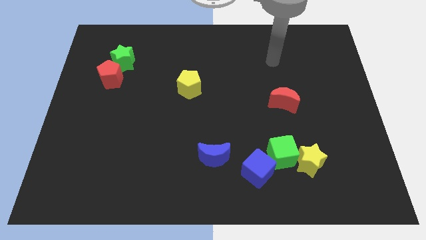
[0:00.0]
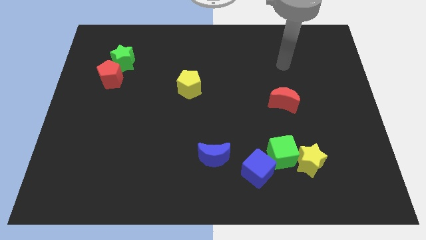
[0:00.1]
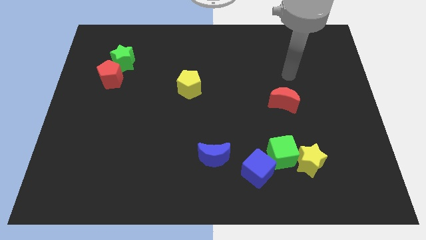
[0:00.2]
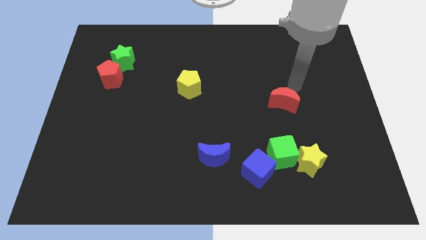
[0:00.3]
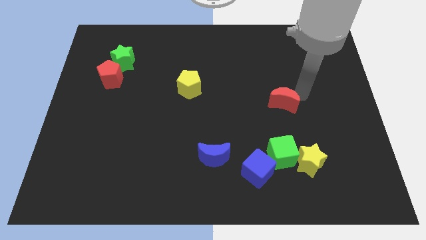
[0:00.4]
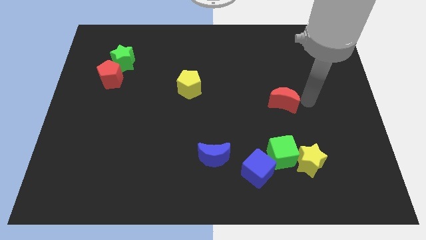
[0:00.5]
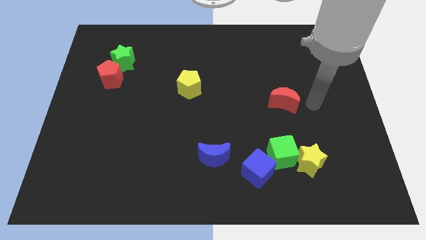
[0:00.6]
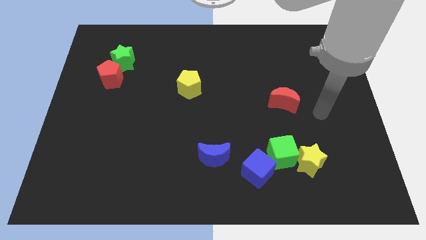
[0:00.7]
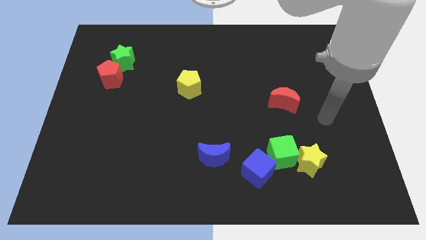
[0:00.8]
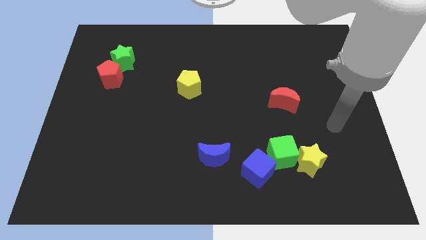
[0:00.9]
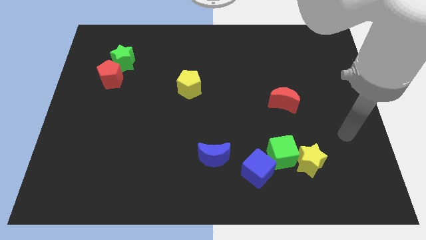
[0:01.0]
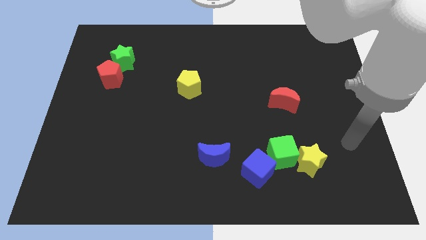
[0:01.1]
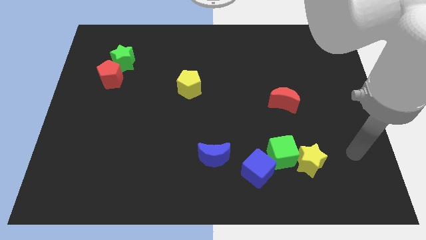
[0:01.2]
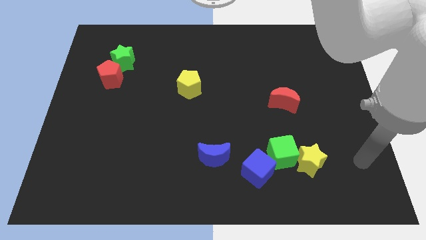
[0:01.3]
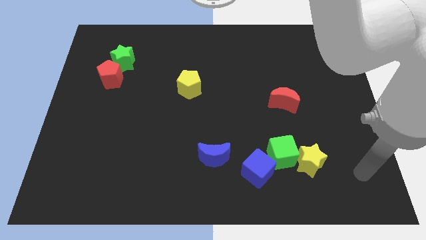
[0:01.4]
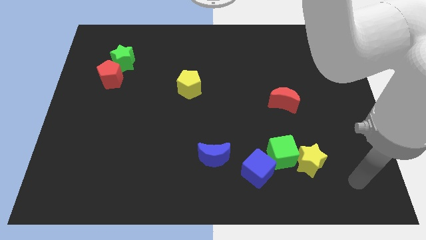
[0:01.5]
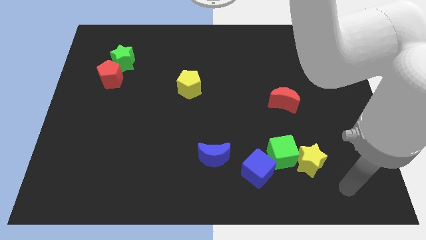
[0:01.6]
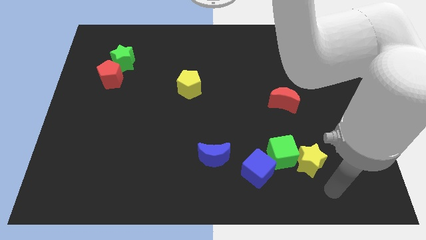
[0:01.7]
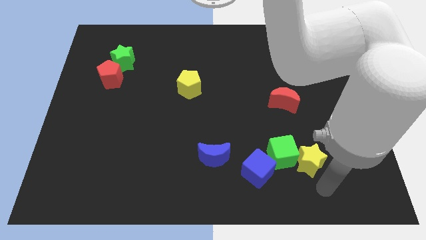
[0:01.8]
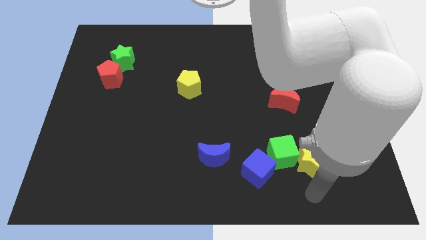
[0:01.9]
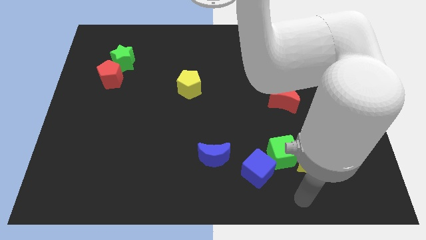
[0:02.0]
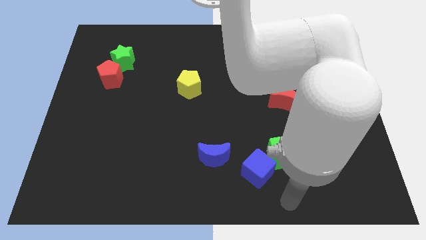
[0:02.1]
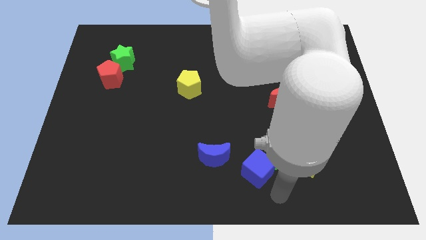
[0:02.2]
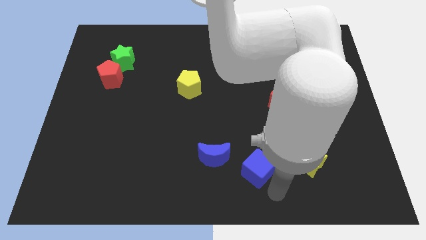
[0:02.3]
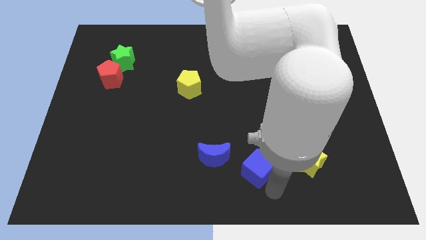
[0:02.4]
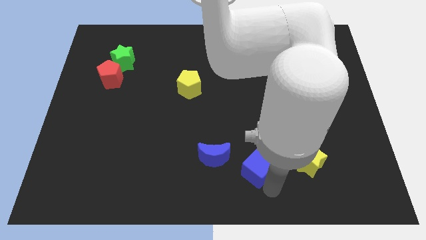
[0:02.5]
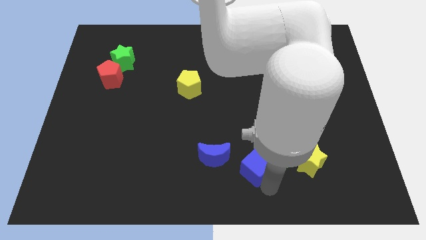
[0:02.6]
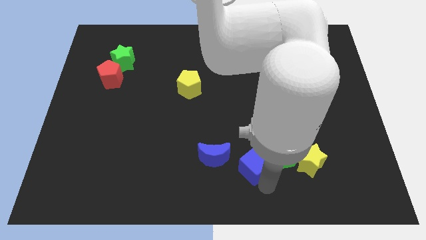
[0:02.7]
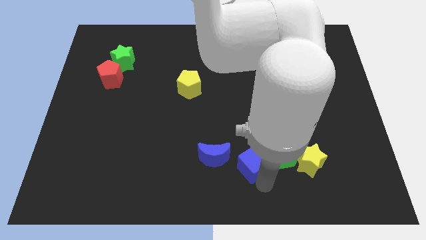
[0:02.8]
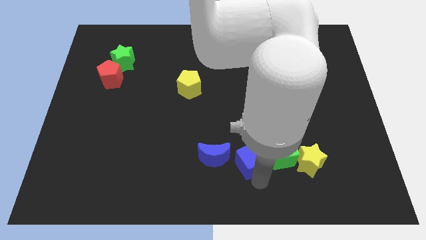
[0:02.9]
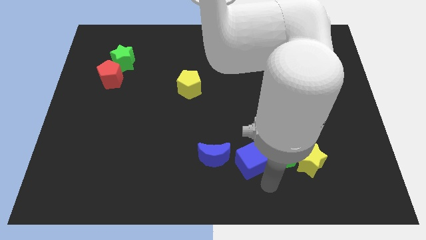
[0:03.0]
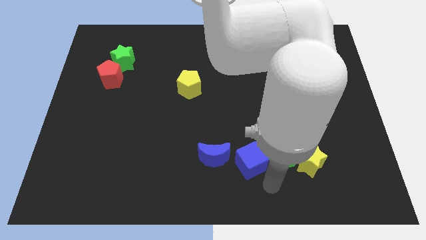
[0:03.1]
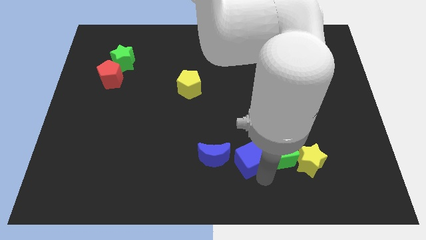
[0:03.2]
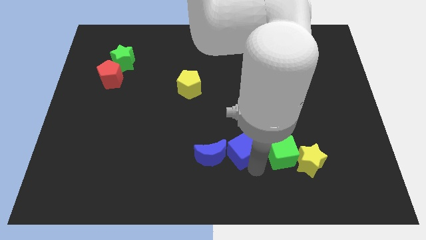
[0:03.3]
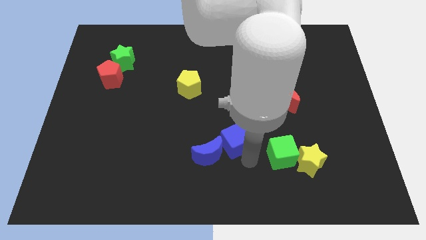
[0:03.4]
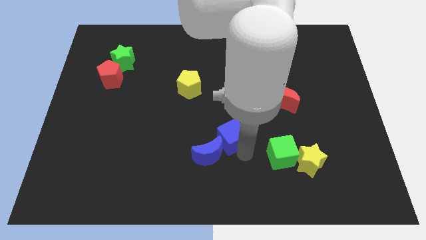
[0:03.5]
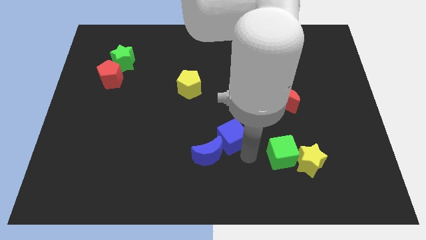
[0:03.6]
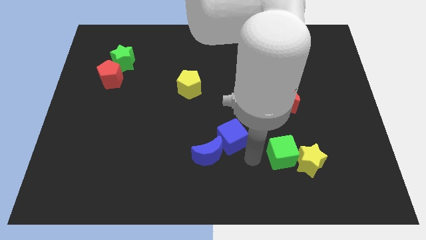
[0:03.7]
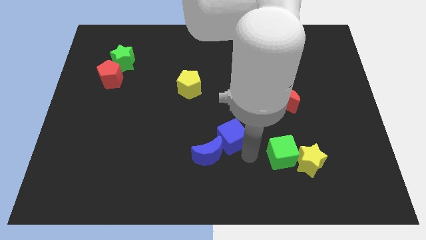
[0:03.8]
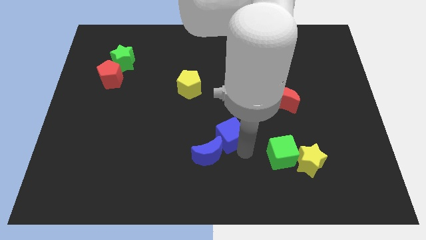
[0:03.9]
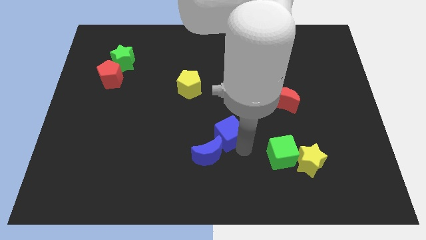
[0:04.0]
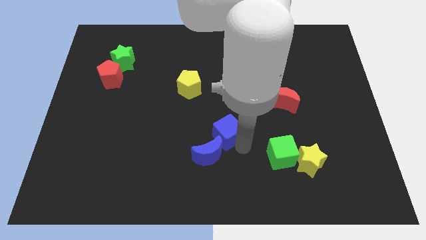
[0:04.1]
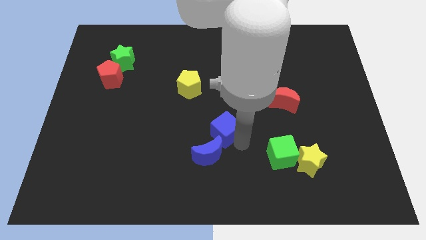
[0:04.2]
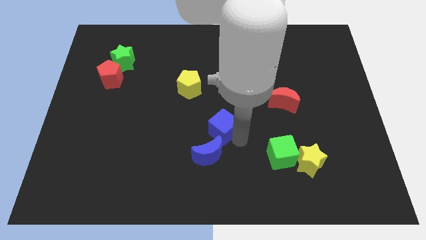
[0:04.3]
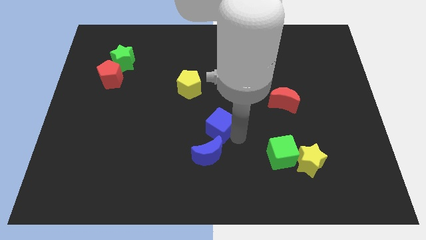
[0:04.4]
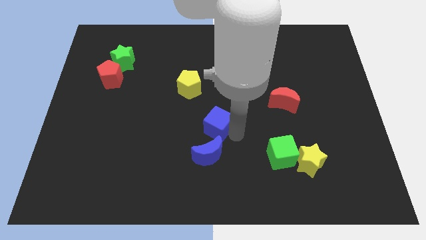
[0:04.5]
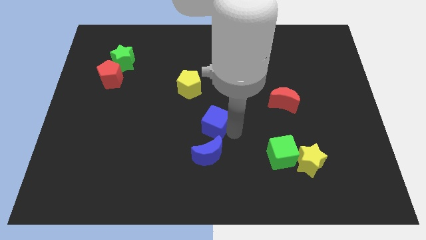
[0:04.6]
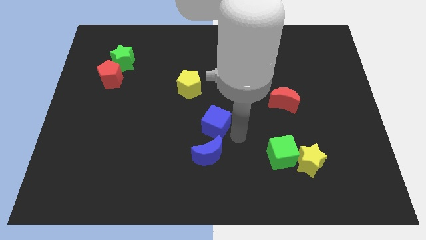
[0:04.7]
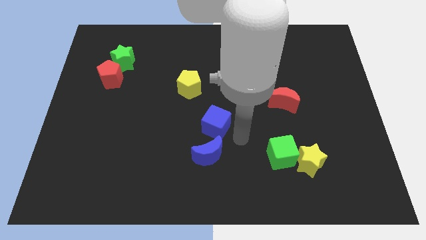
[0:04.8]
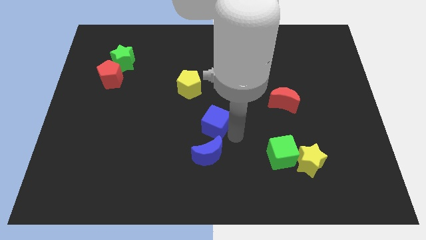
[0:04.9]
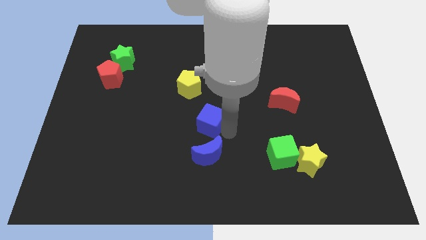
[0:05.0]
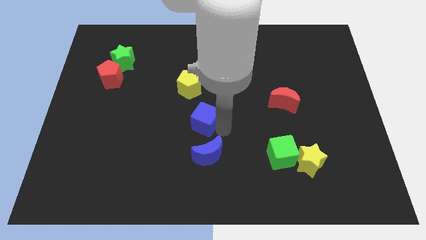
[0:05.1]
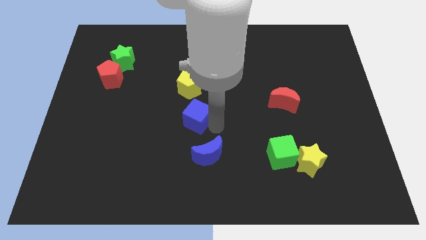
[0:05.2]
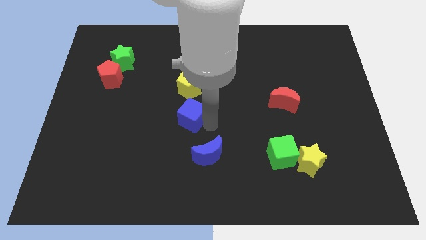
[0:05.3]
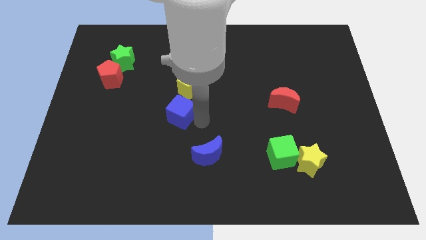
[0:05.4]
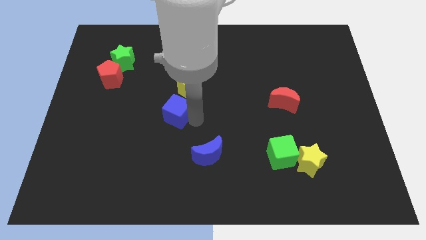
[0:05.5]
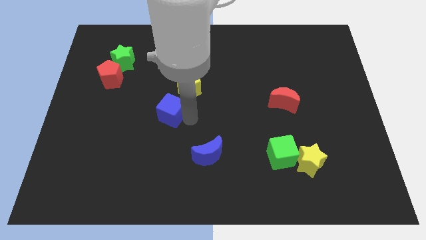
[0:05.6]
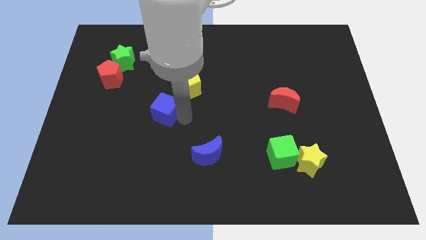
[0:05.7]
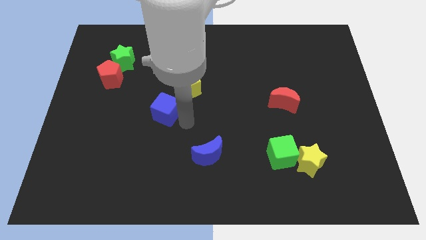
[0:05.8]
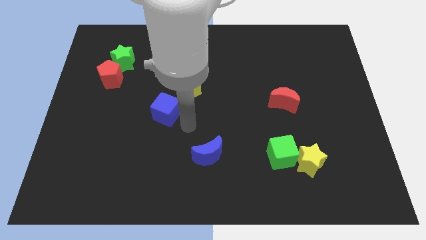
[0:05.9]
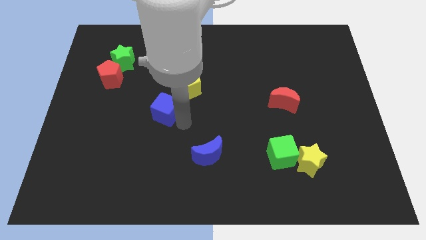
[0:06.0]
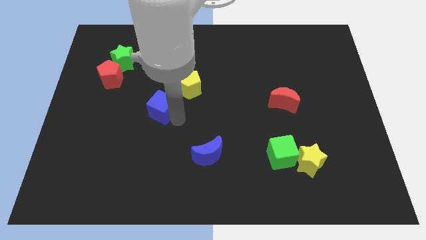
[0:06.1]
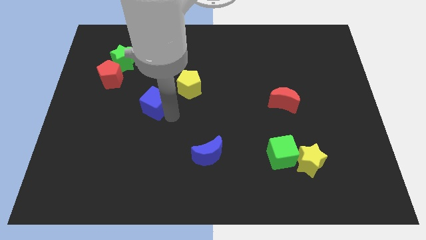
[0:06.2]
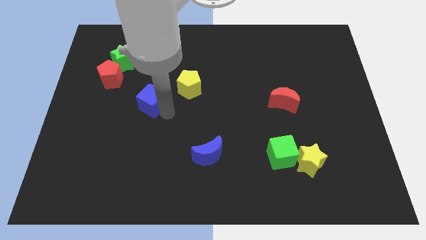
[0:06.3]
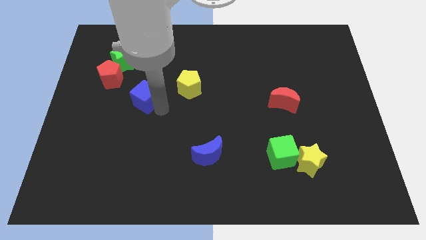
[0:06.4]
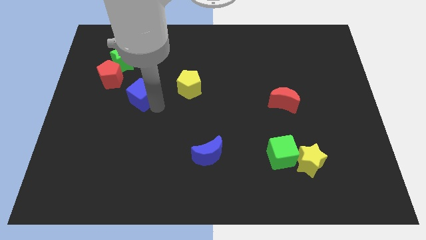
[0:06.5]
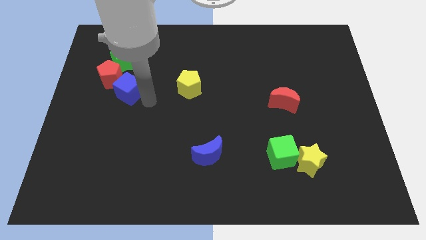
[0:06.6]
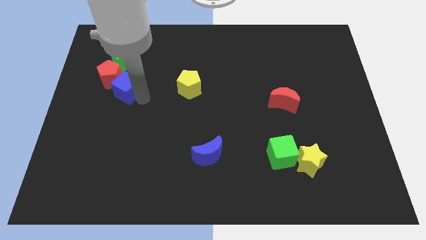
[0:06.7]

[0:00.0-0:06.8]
put the blue cube next to the red pentagon
